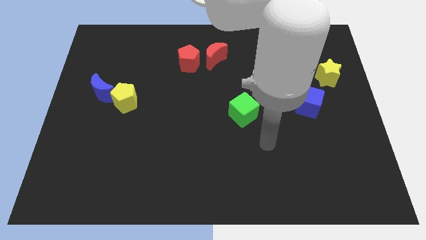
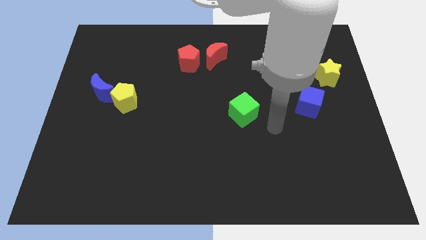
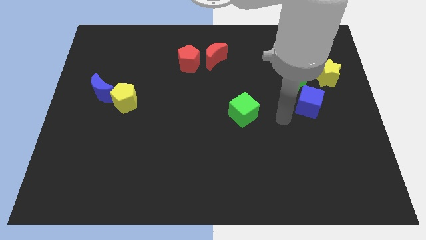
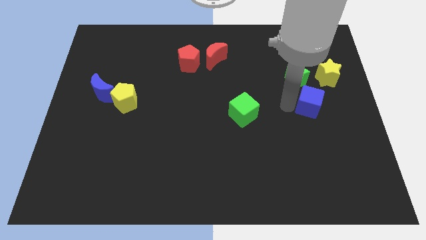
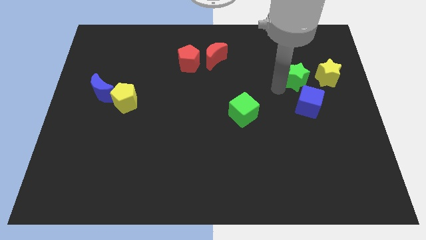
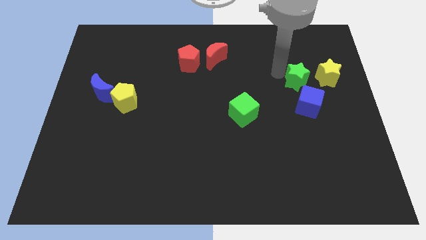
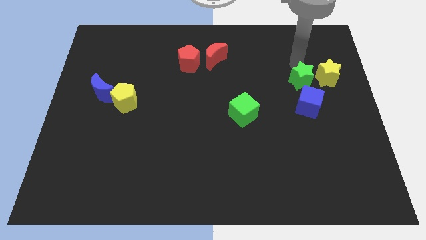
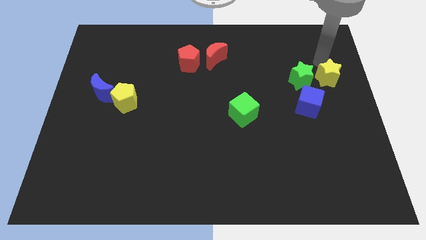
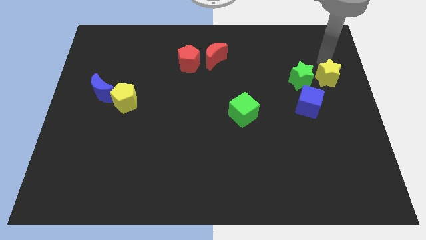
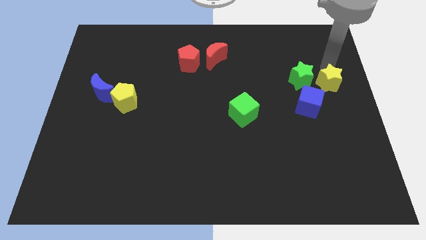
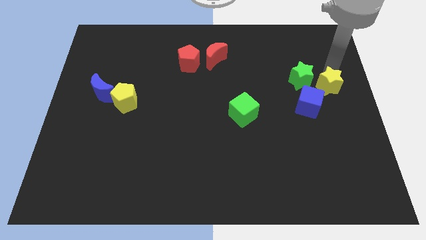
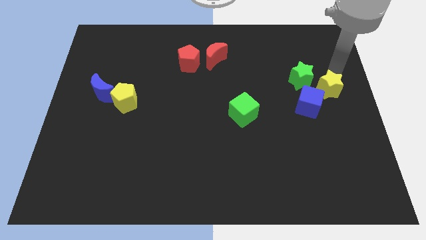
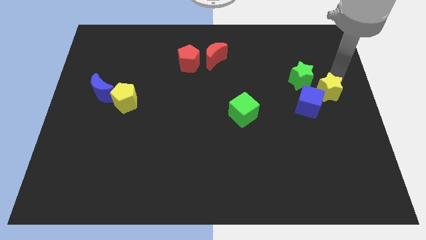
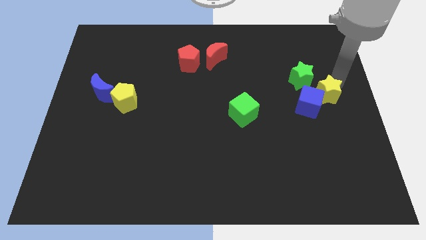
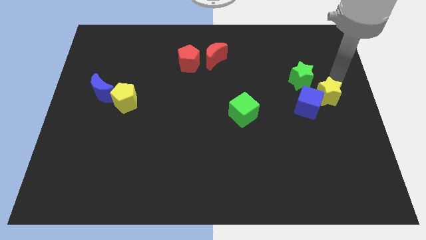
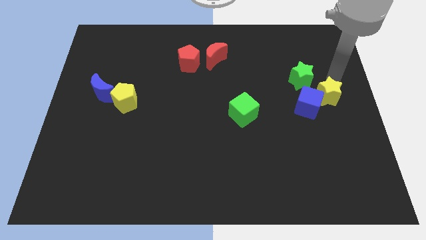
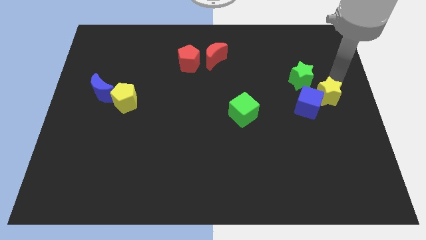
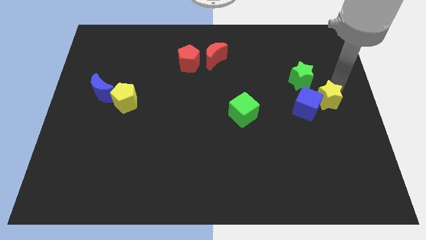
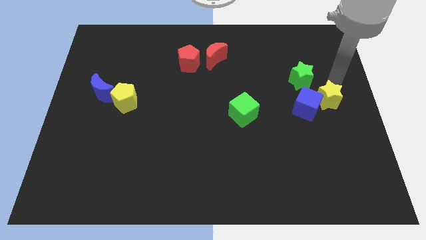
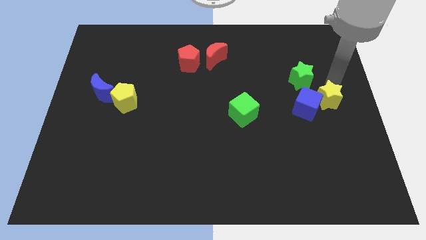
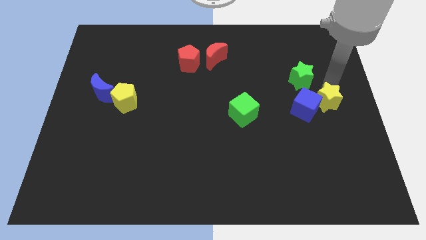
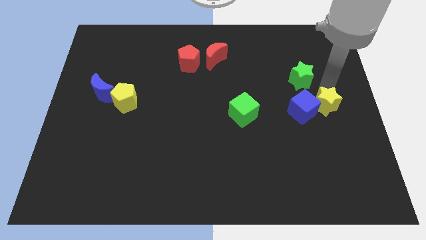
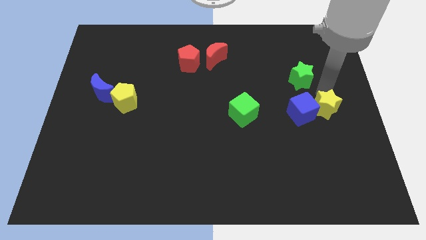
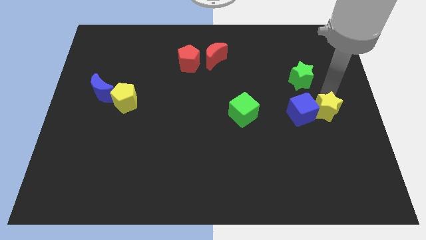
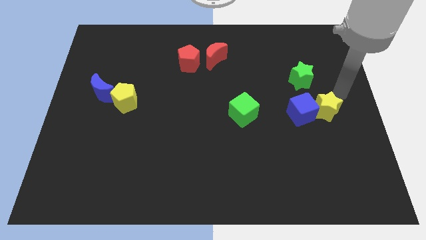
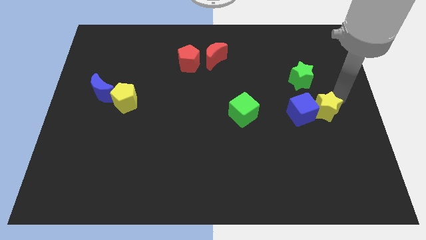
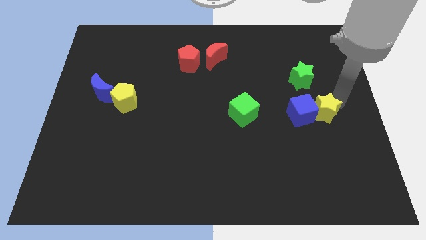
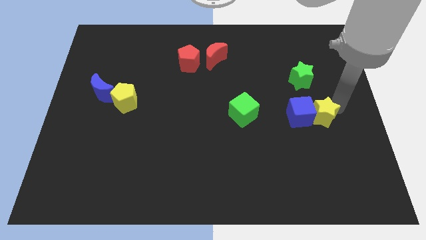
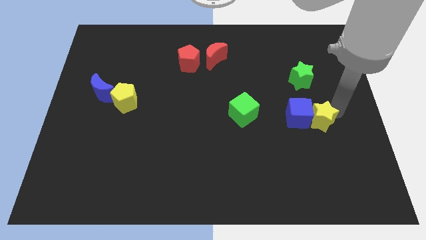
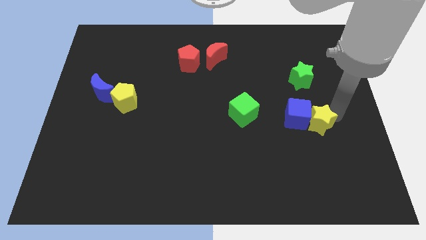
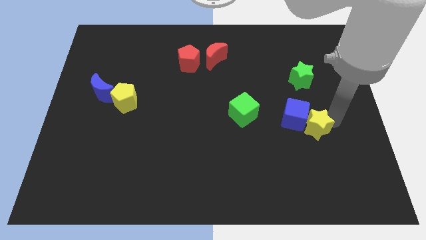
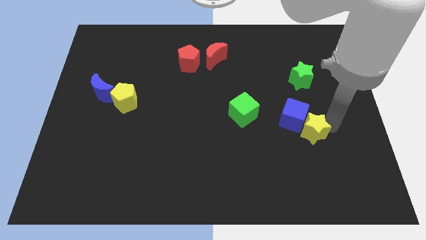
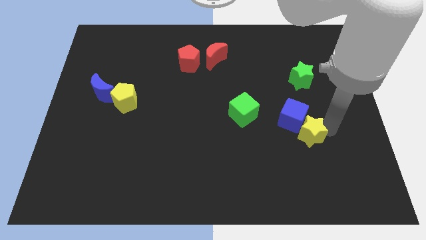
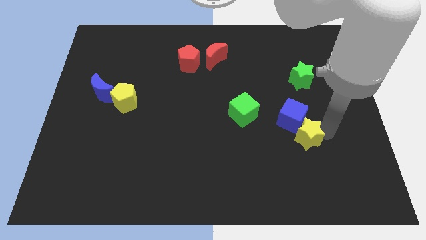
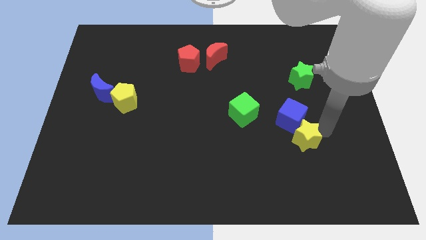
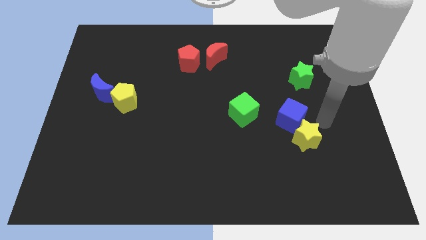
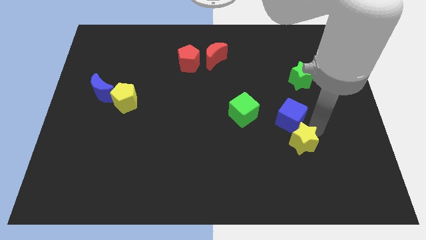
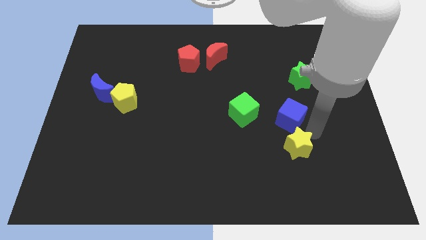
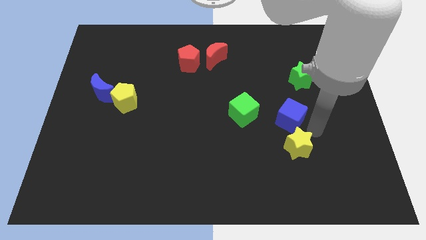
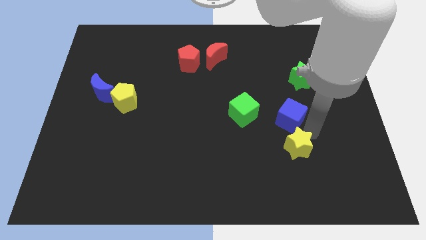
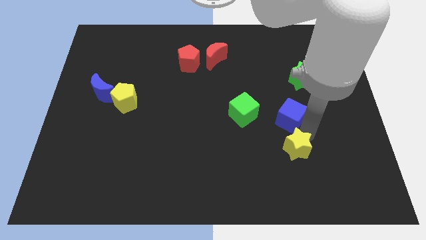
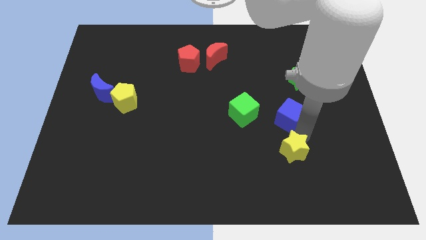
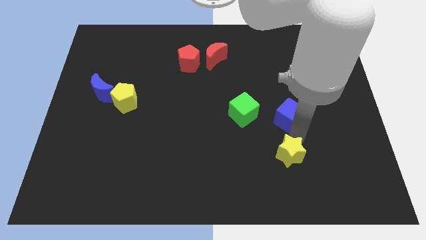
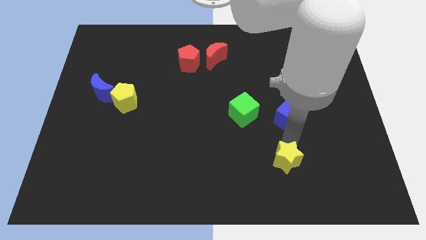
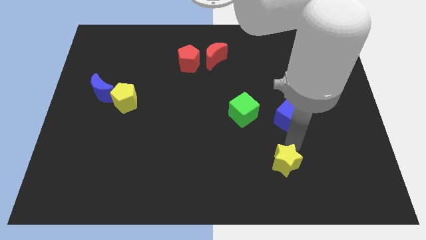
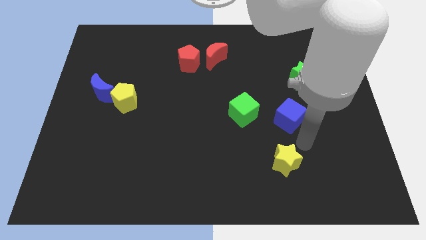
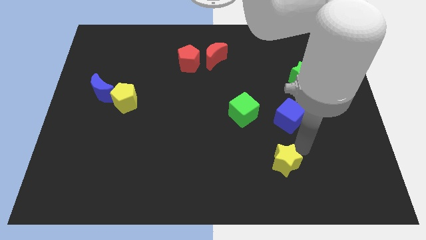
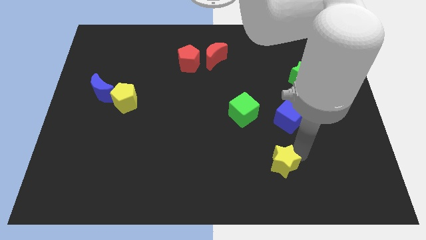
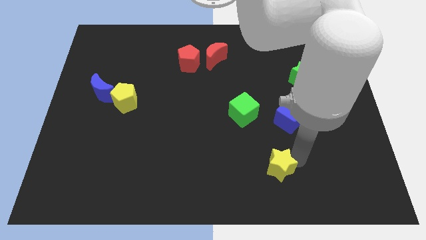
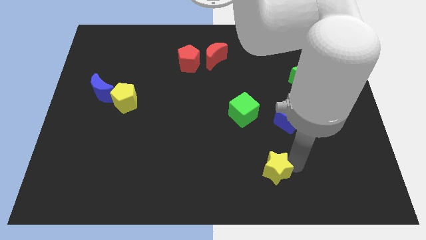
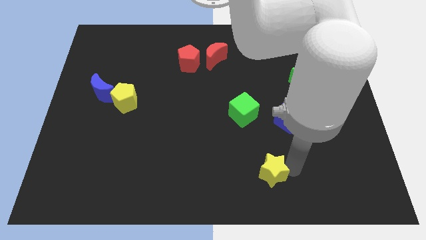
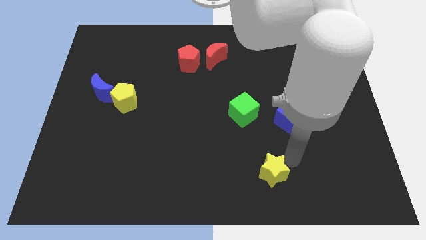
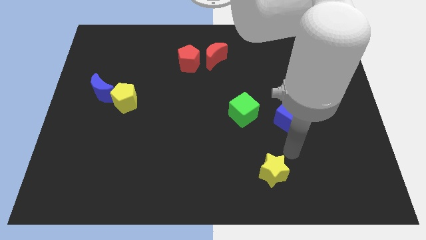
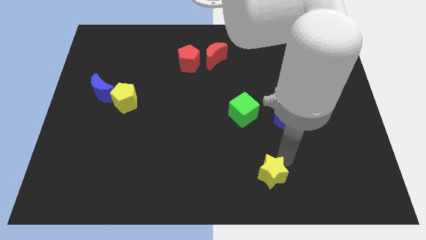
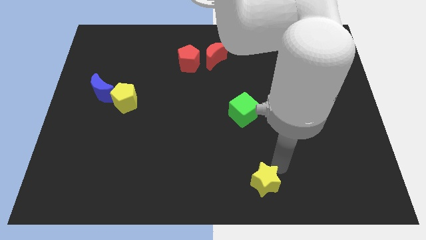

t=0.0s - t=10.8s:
move the yellow star to the bottom side

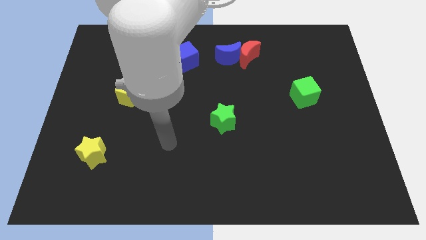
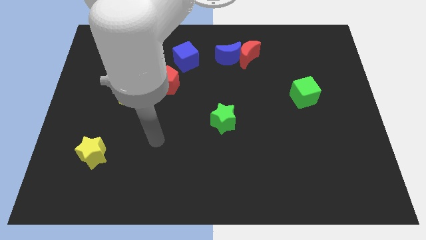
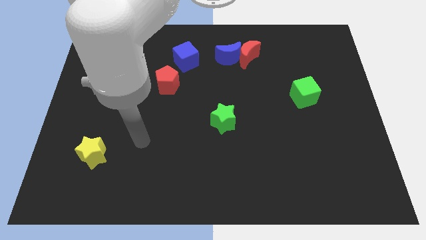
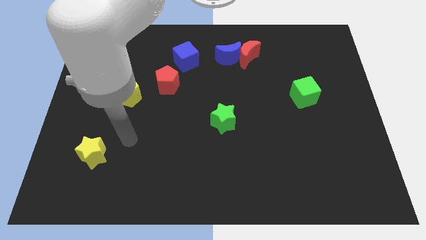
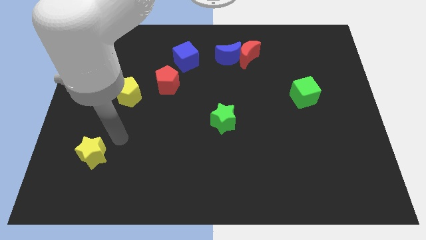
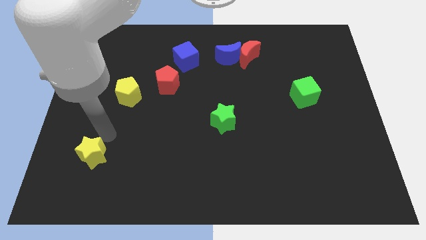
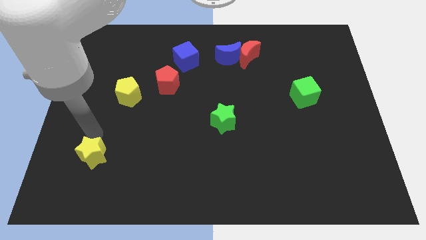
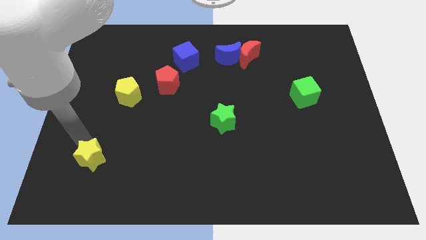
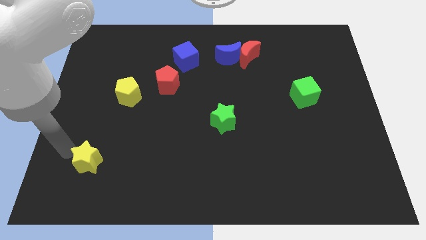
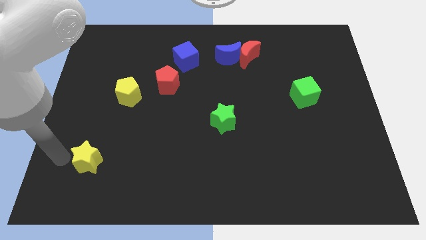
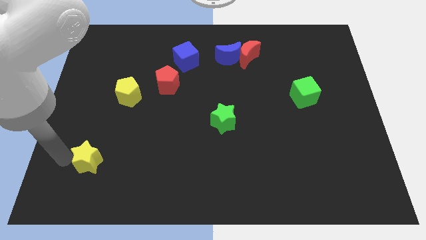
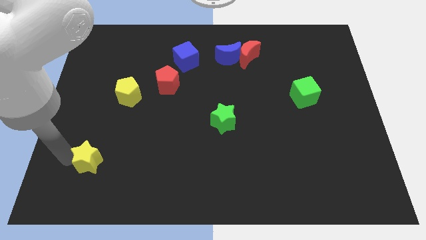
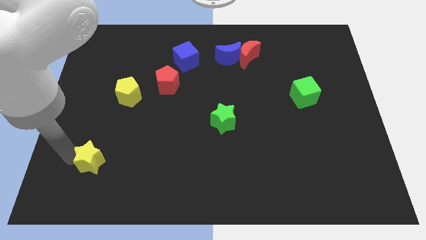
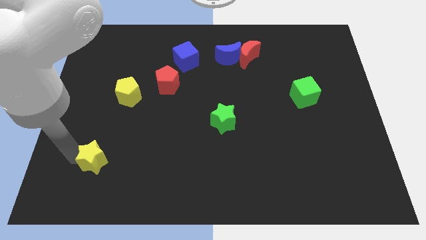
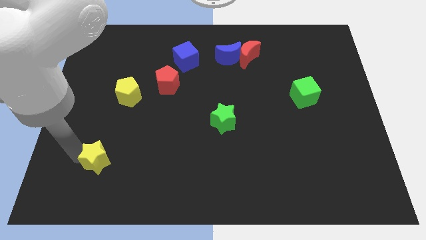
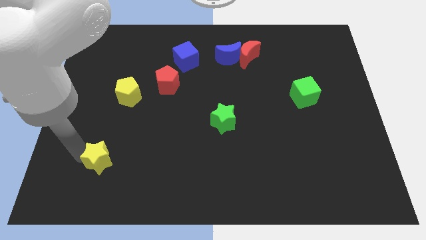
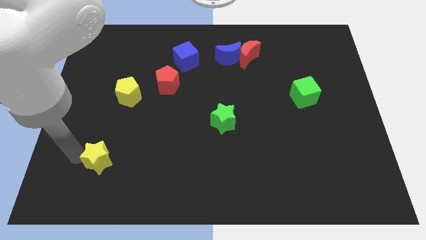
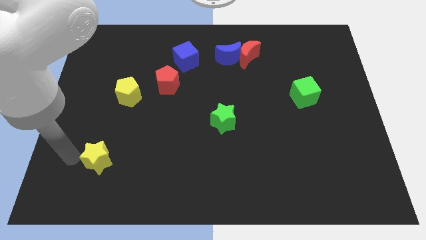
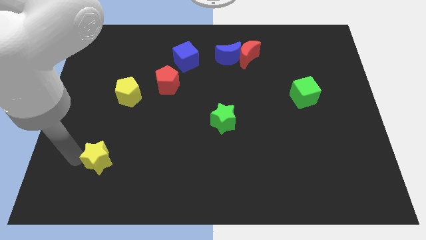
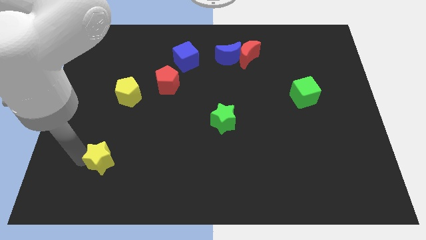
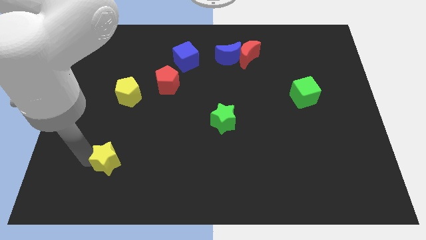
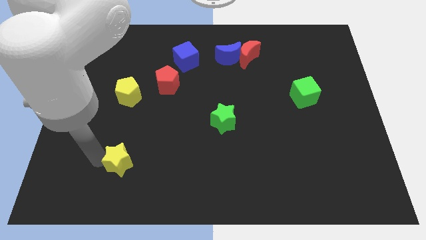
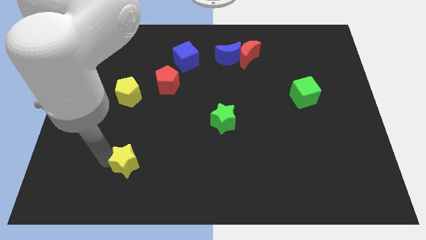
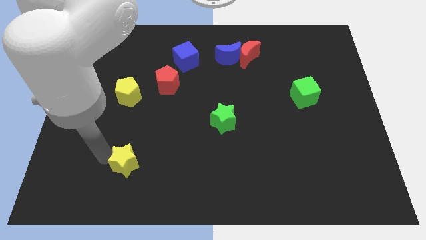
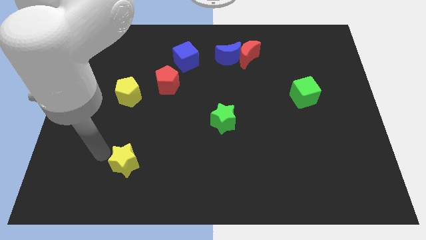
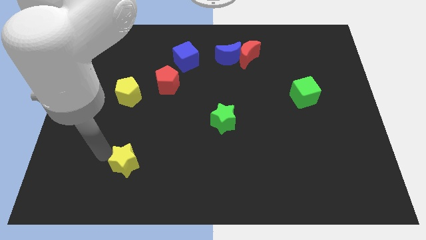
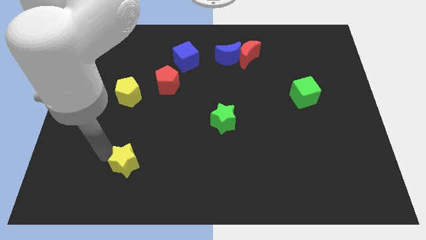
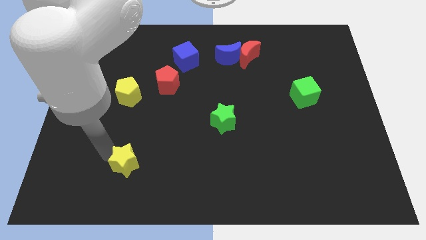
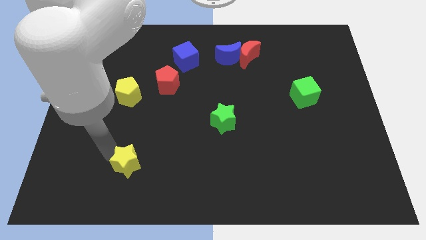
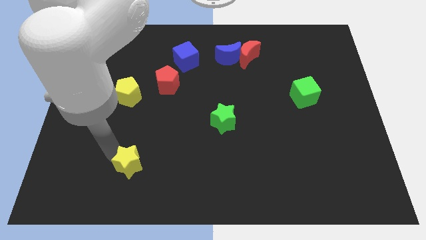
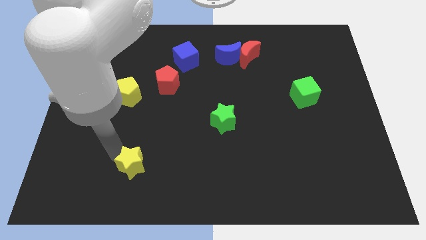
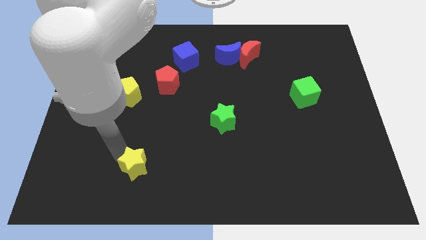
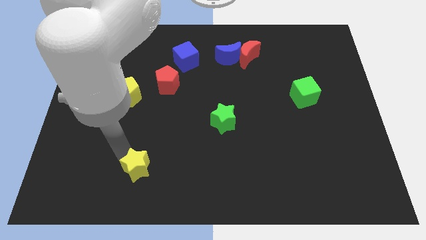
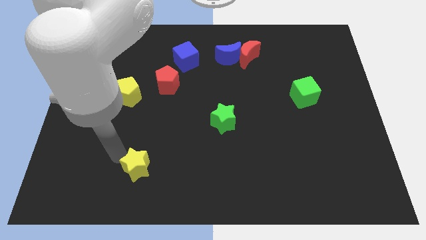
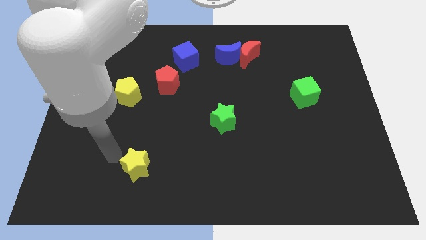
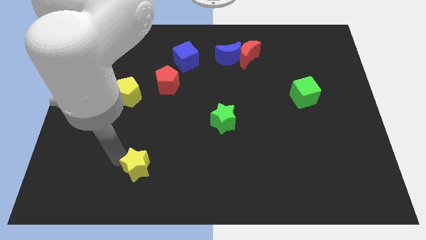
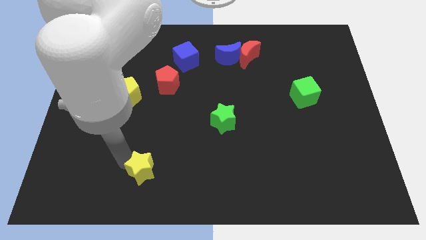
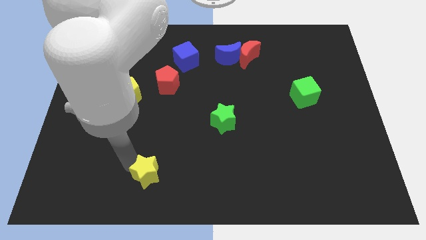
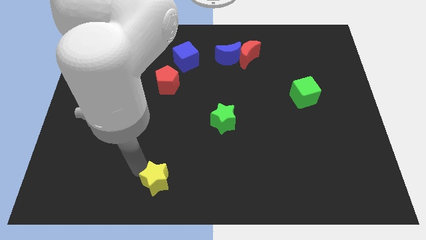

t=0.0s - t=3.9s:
move the yellow star to the bottom
